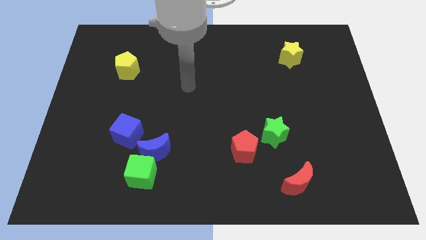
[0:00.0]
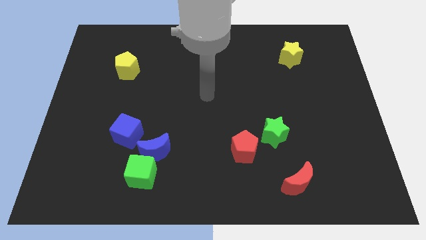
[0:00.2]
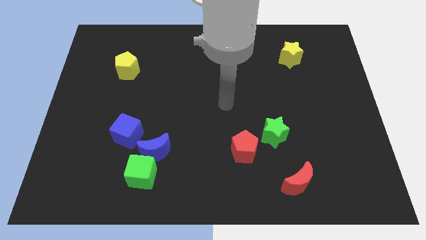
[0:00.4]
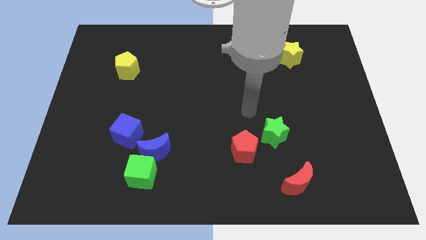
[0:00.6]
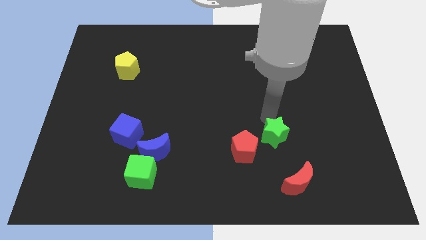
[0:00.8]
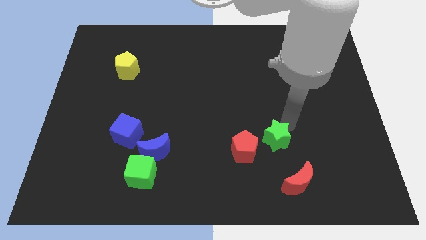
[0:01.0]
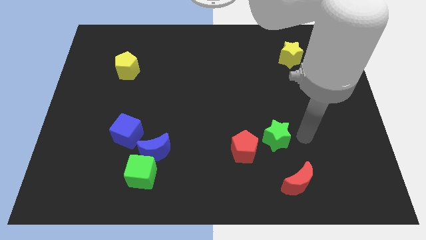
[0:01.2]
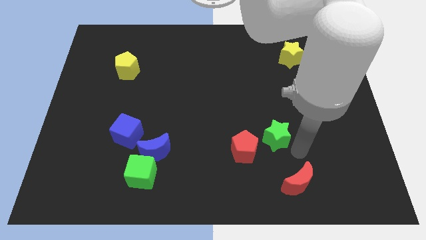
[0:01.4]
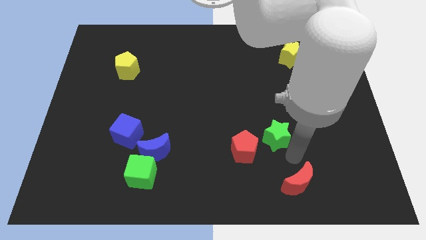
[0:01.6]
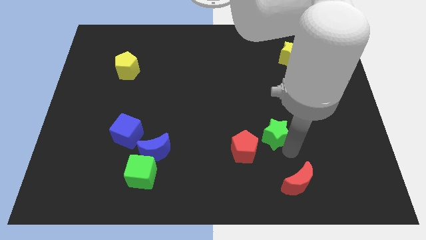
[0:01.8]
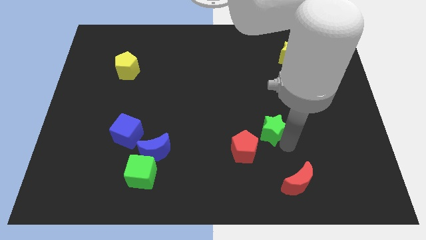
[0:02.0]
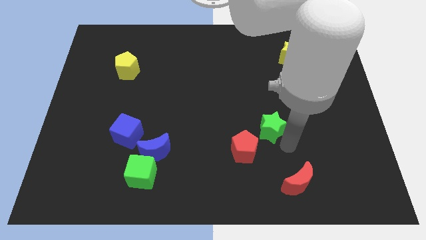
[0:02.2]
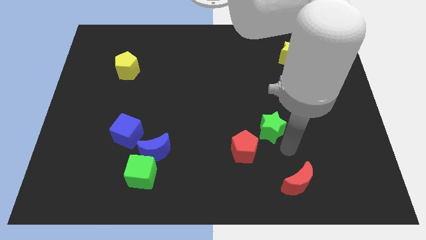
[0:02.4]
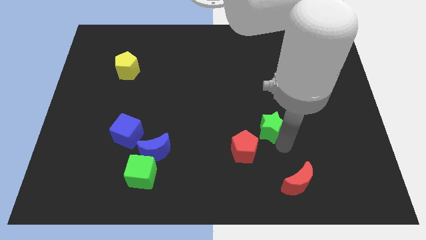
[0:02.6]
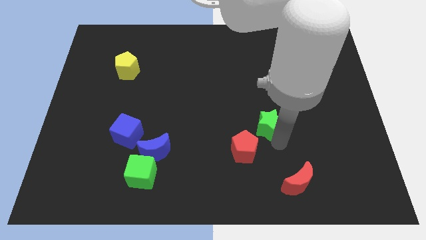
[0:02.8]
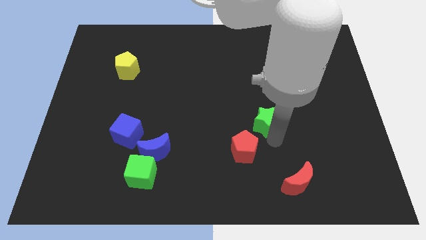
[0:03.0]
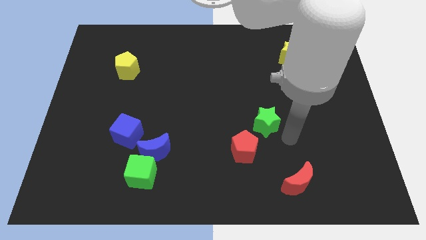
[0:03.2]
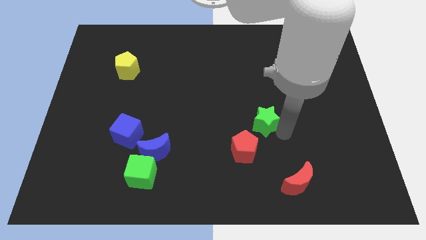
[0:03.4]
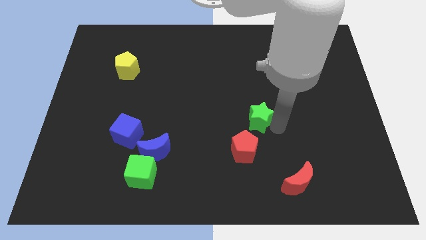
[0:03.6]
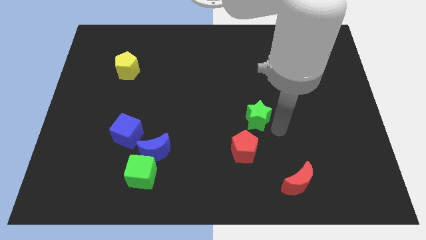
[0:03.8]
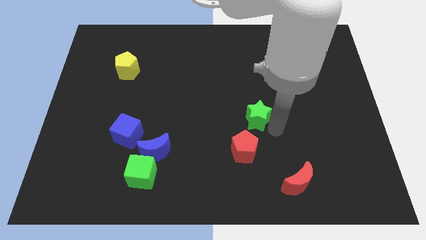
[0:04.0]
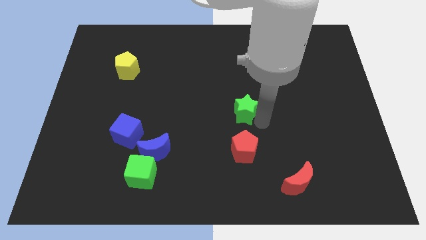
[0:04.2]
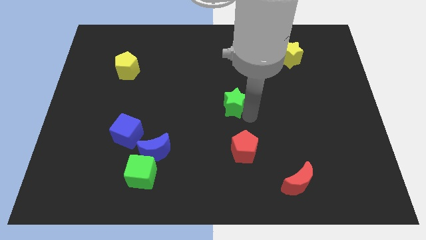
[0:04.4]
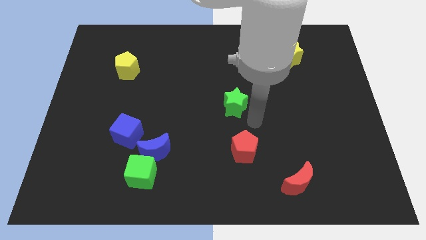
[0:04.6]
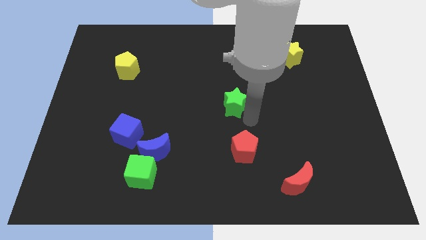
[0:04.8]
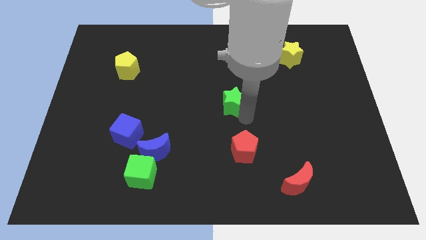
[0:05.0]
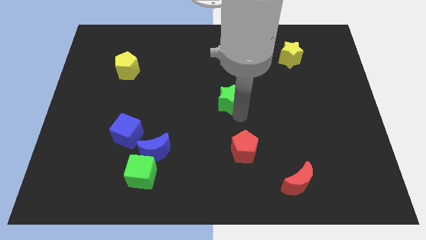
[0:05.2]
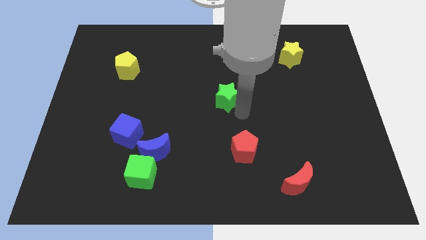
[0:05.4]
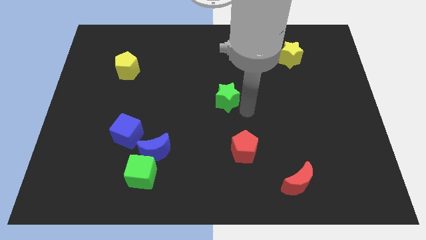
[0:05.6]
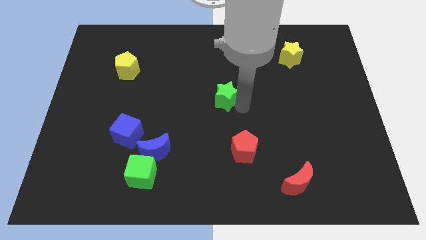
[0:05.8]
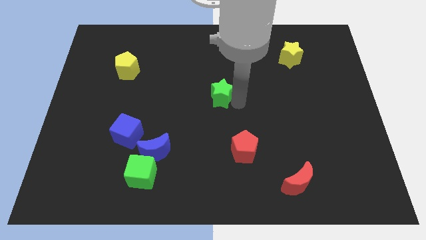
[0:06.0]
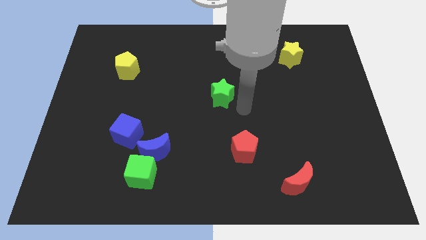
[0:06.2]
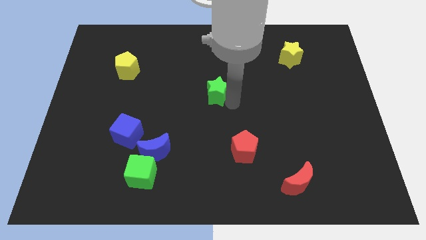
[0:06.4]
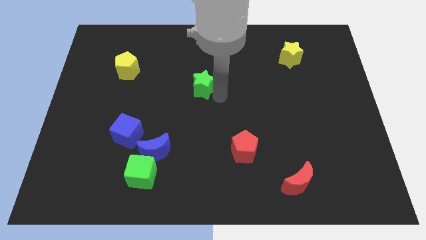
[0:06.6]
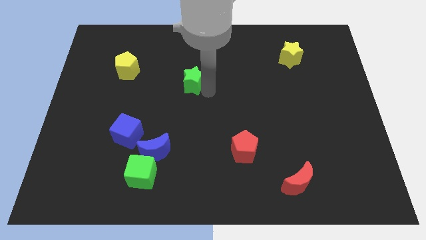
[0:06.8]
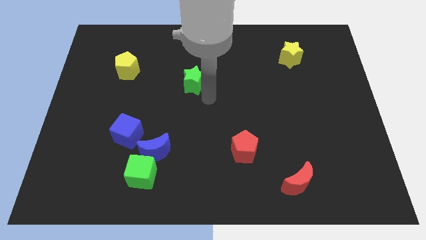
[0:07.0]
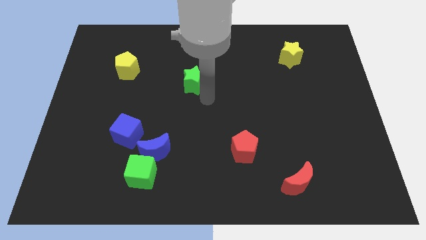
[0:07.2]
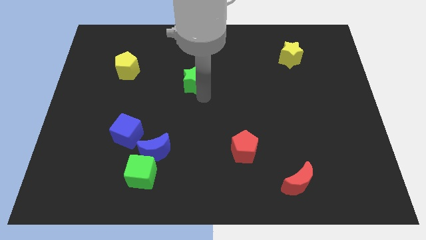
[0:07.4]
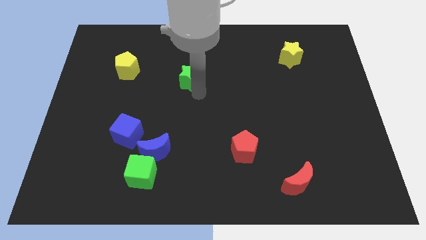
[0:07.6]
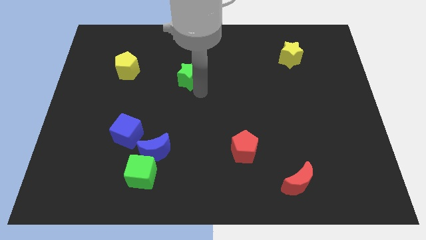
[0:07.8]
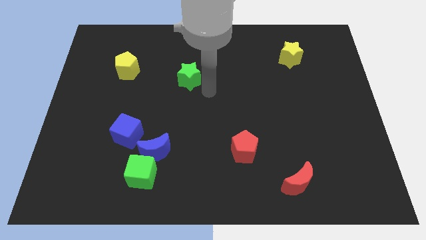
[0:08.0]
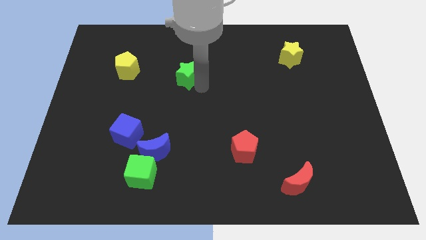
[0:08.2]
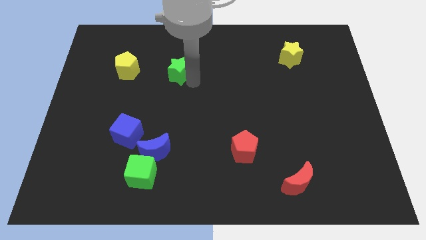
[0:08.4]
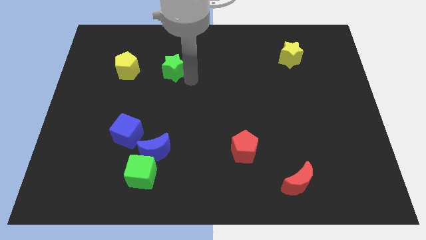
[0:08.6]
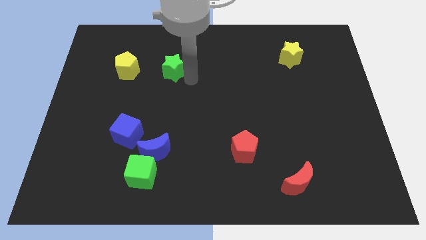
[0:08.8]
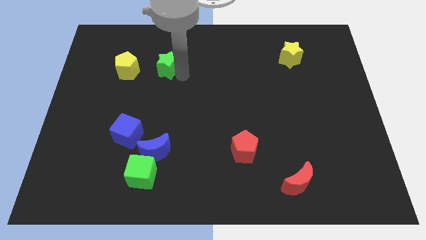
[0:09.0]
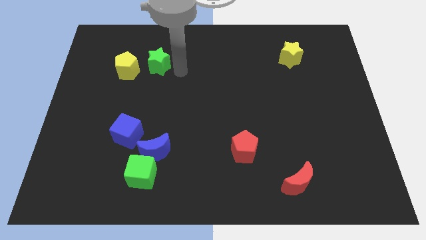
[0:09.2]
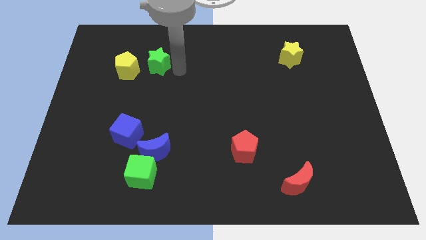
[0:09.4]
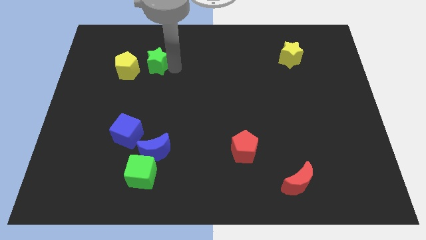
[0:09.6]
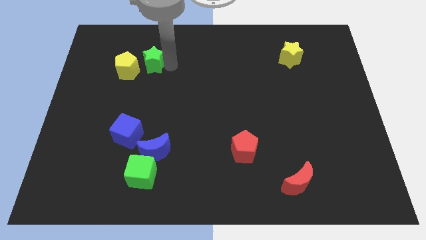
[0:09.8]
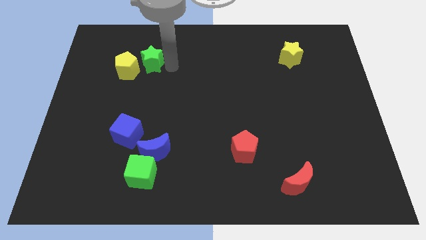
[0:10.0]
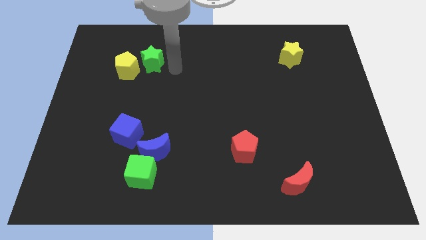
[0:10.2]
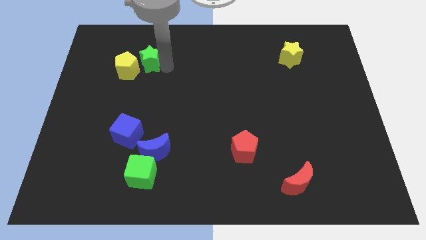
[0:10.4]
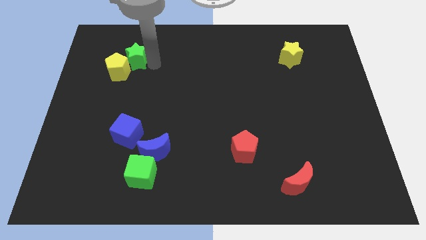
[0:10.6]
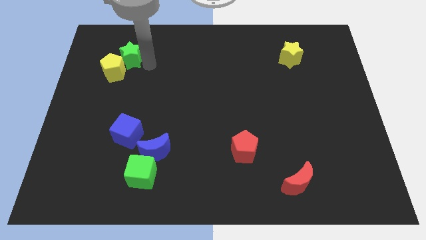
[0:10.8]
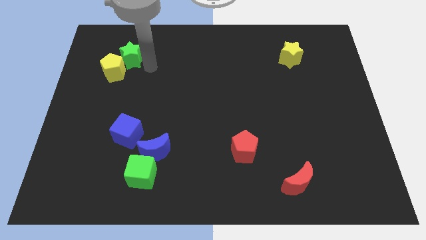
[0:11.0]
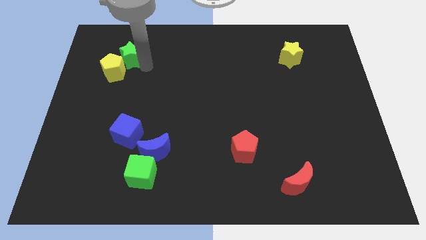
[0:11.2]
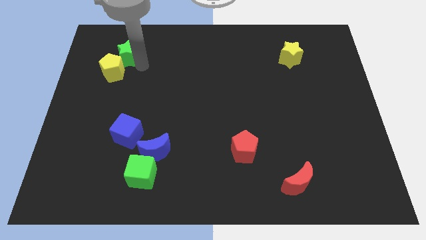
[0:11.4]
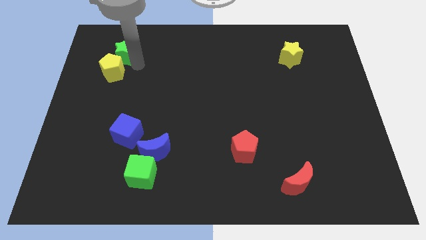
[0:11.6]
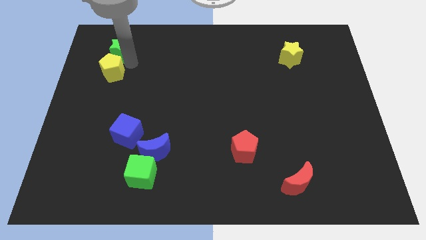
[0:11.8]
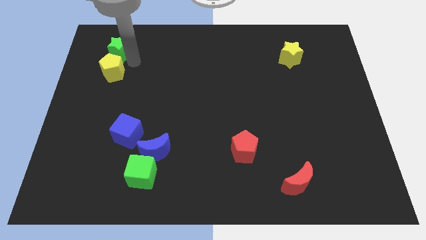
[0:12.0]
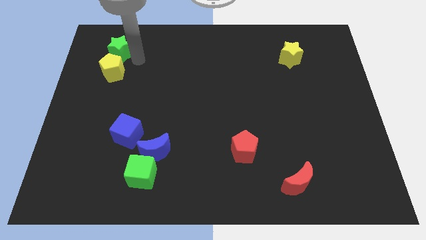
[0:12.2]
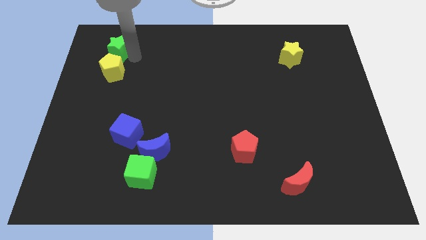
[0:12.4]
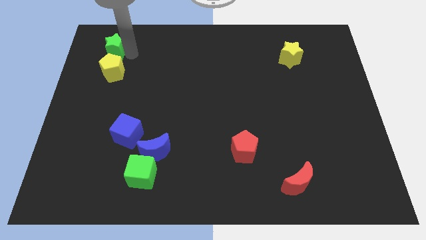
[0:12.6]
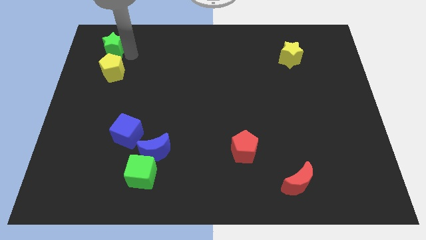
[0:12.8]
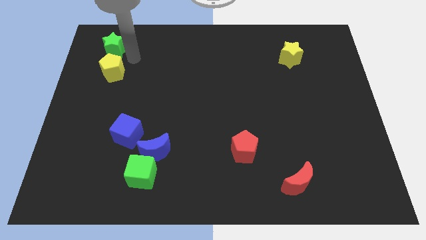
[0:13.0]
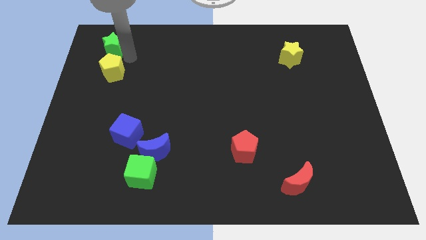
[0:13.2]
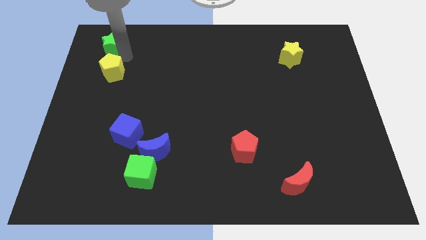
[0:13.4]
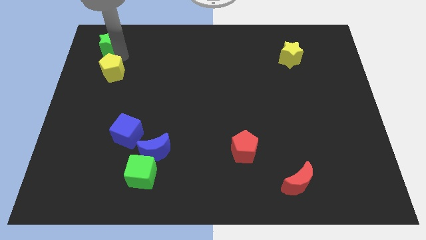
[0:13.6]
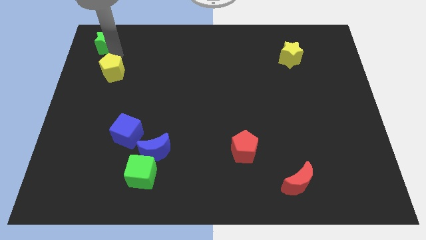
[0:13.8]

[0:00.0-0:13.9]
slide the green star to the top left

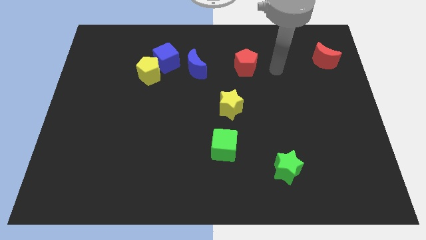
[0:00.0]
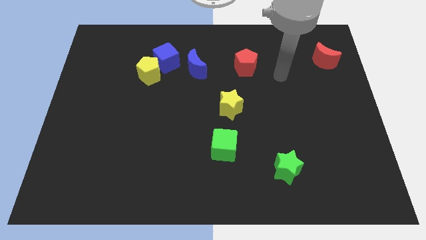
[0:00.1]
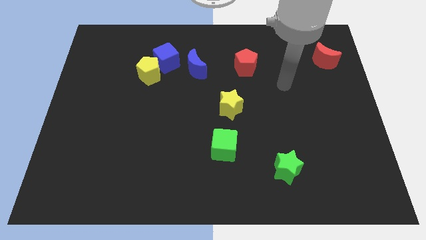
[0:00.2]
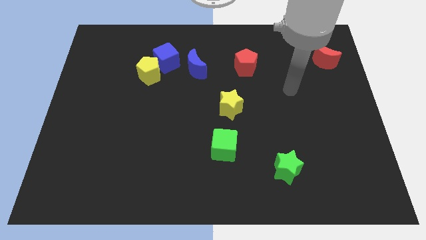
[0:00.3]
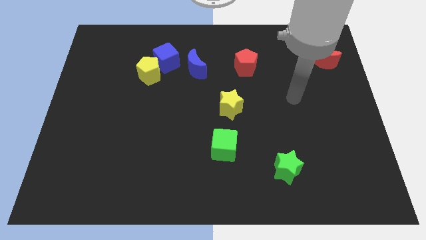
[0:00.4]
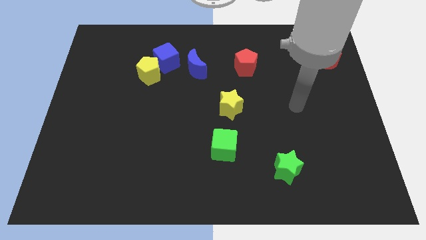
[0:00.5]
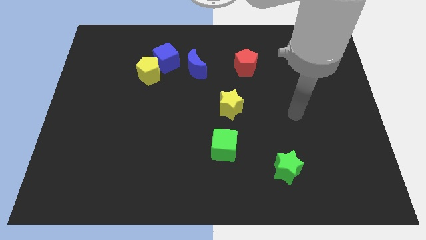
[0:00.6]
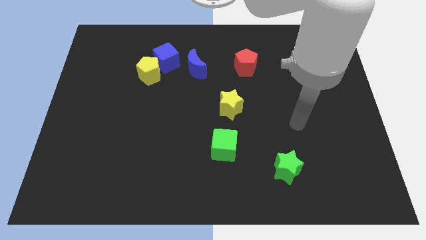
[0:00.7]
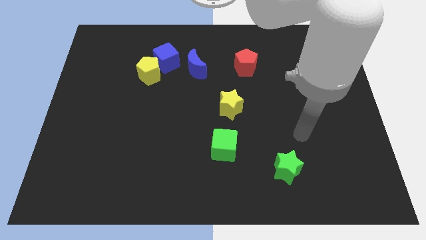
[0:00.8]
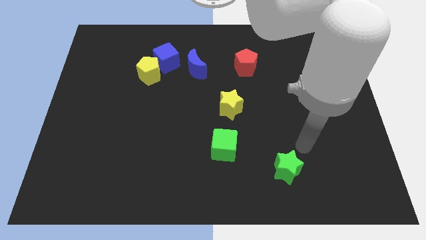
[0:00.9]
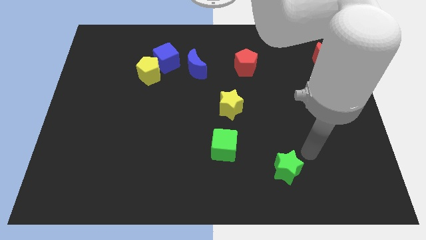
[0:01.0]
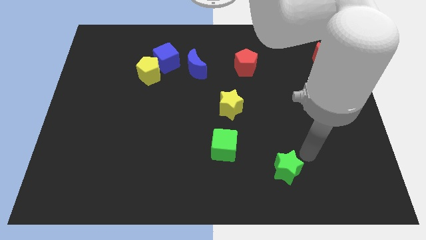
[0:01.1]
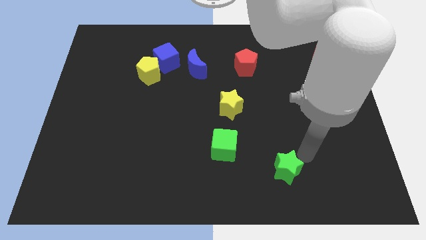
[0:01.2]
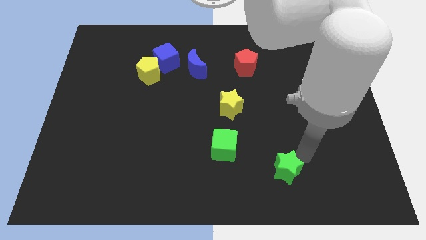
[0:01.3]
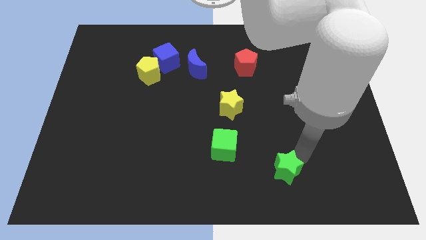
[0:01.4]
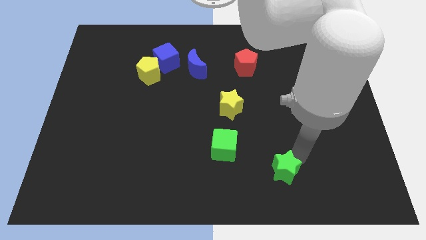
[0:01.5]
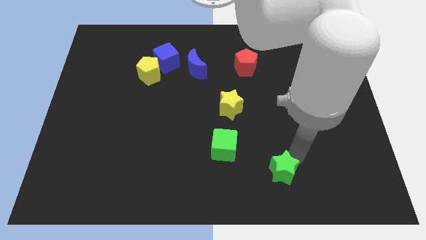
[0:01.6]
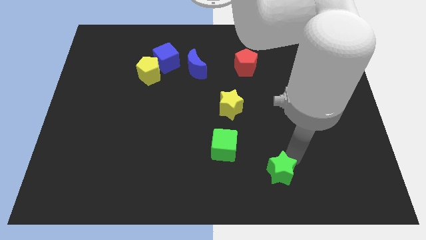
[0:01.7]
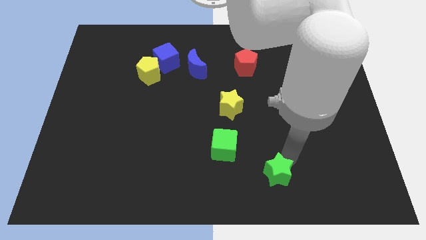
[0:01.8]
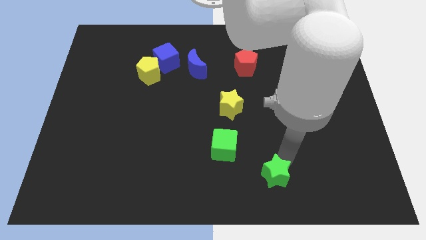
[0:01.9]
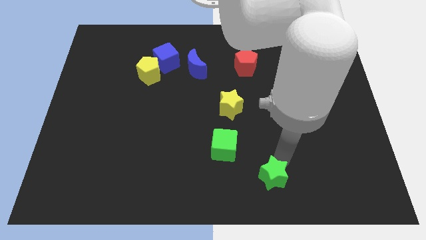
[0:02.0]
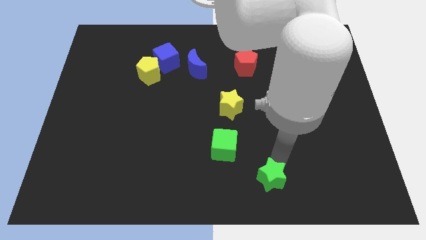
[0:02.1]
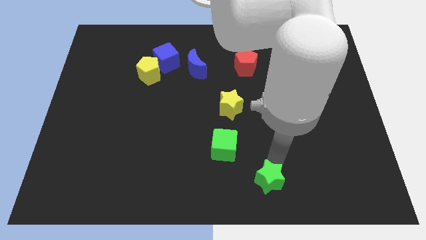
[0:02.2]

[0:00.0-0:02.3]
put the green star to the bottom side
